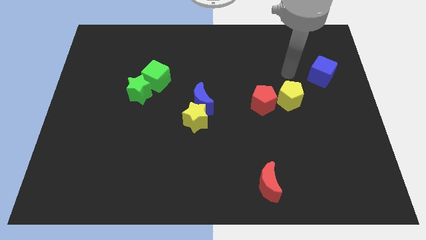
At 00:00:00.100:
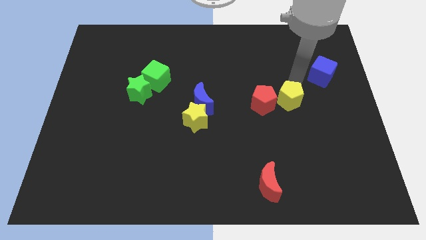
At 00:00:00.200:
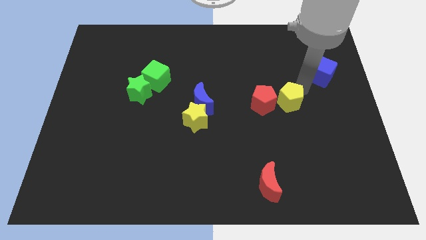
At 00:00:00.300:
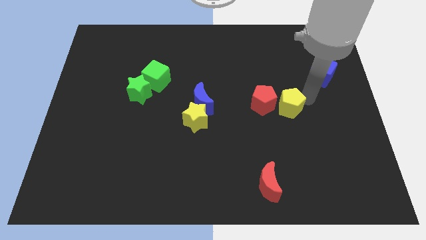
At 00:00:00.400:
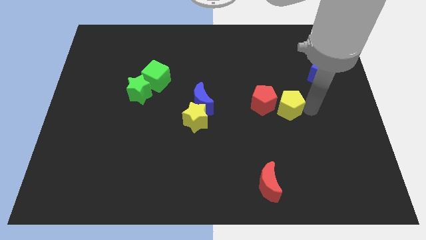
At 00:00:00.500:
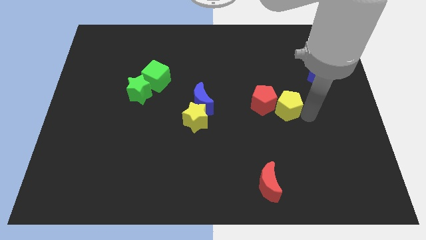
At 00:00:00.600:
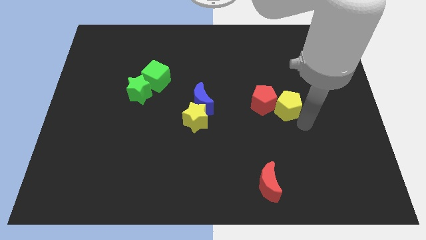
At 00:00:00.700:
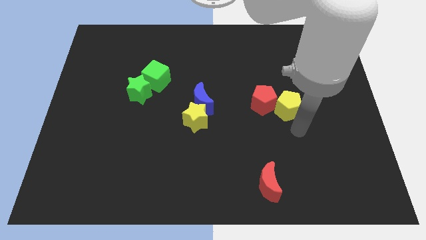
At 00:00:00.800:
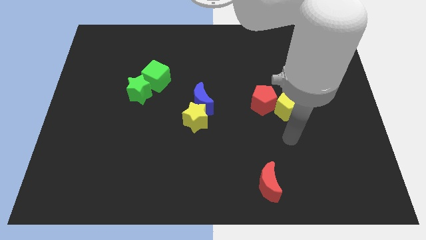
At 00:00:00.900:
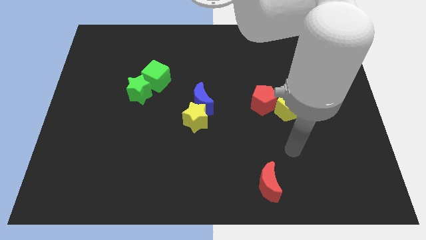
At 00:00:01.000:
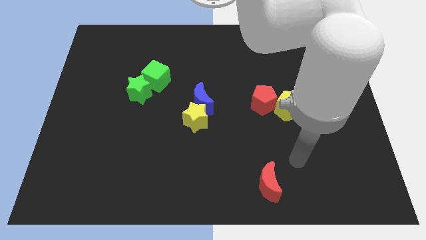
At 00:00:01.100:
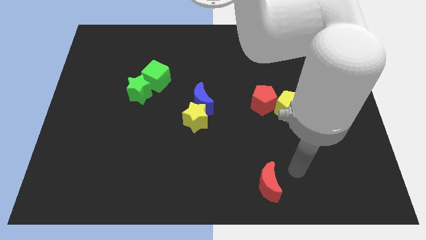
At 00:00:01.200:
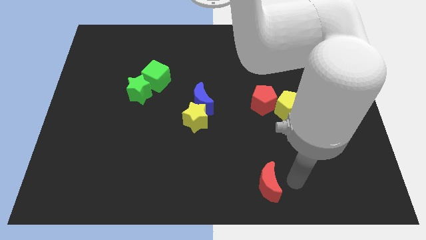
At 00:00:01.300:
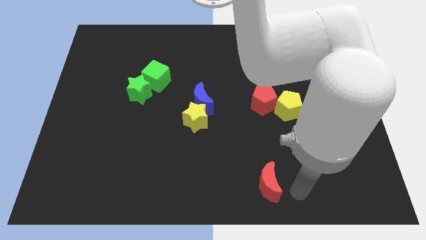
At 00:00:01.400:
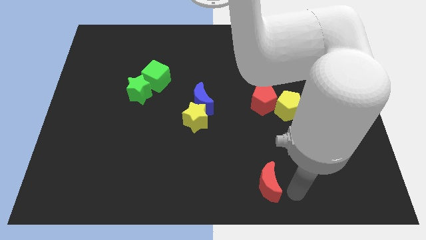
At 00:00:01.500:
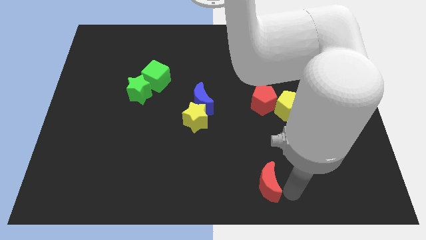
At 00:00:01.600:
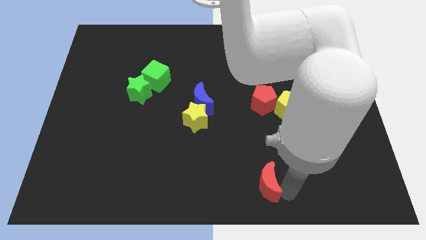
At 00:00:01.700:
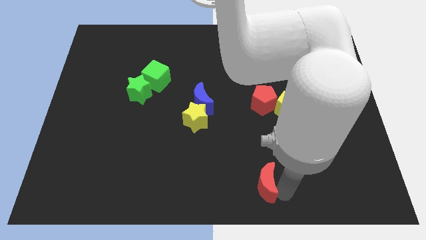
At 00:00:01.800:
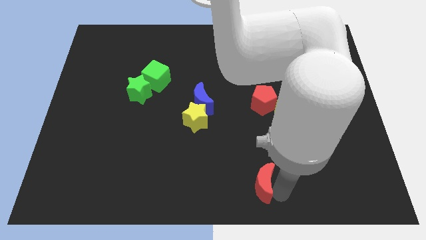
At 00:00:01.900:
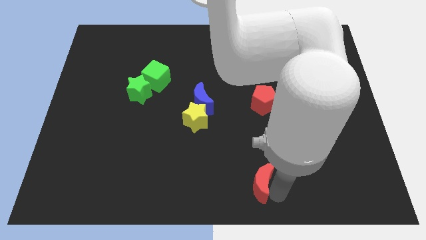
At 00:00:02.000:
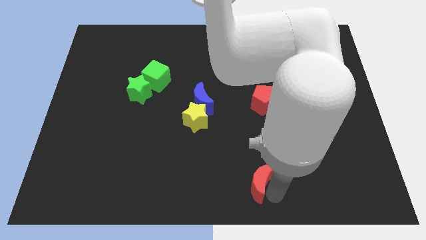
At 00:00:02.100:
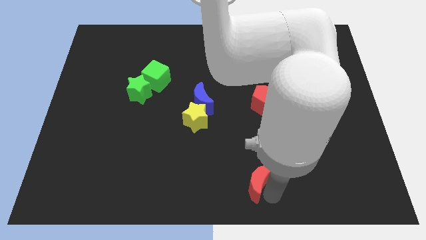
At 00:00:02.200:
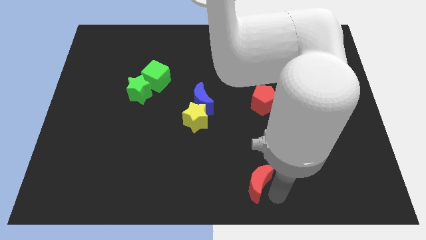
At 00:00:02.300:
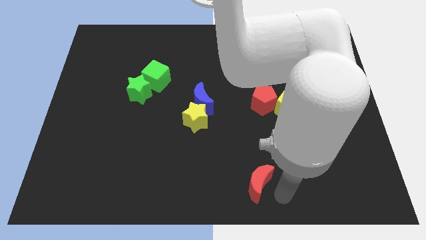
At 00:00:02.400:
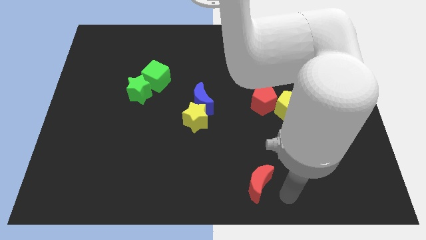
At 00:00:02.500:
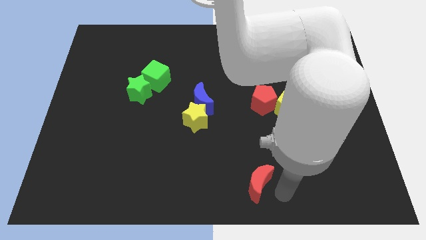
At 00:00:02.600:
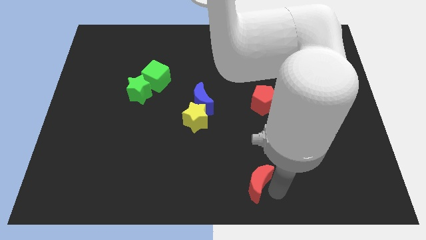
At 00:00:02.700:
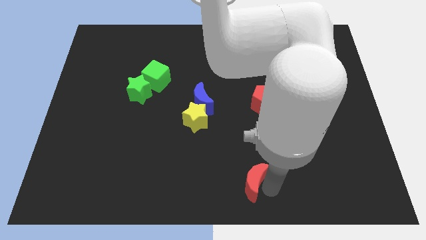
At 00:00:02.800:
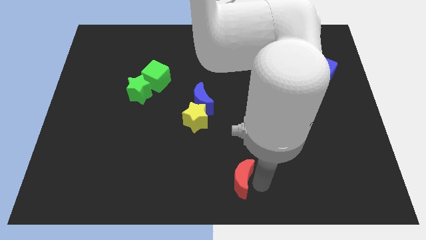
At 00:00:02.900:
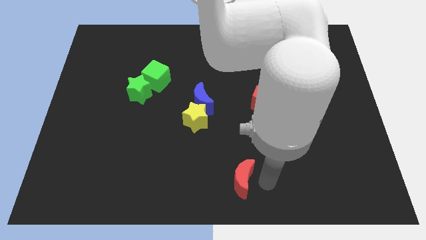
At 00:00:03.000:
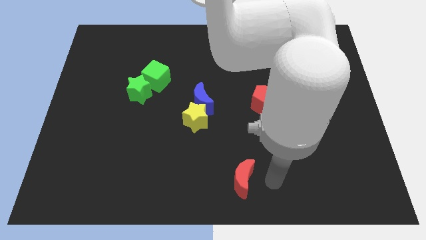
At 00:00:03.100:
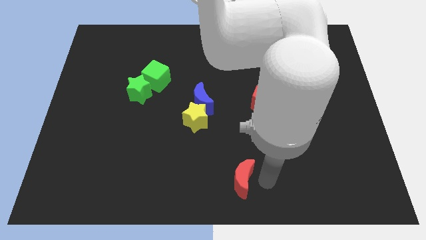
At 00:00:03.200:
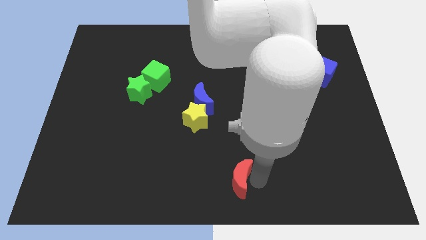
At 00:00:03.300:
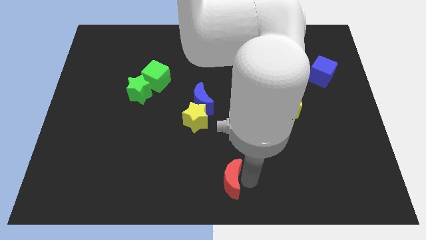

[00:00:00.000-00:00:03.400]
push the red moon a little bit to the left

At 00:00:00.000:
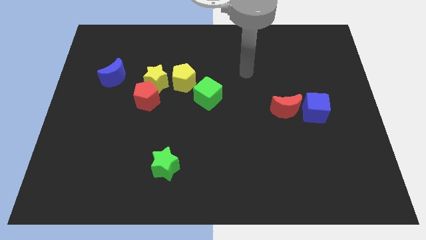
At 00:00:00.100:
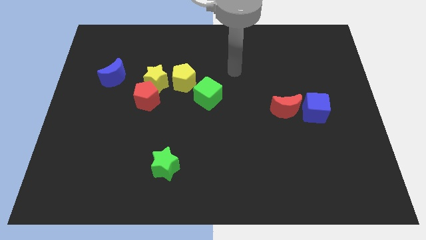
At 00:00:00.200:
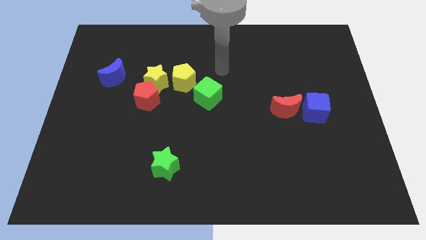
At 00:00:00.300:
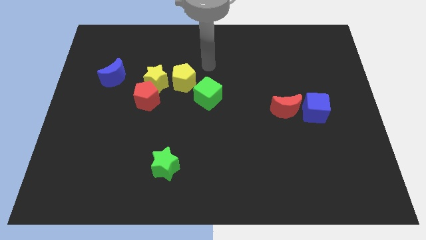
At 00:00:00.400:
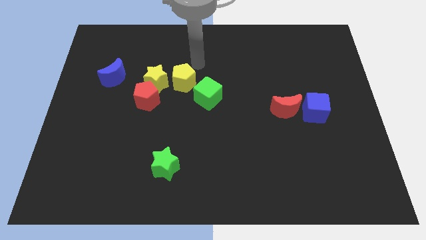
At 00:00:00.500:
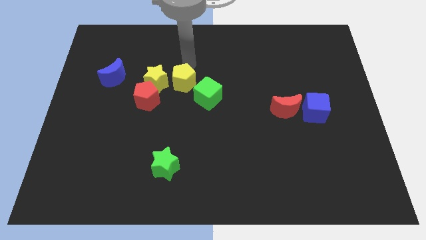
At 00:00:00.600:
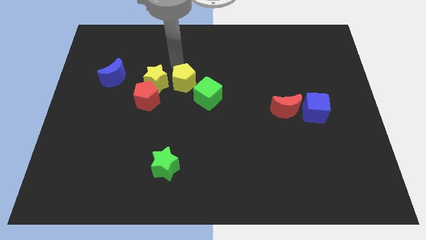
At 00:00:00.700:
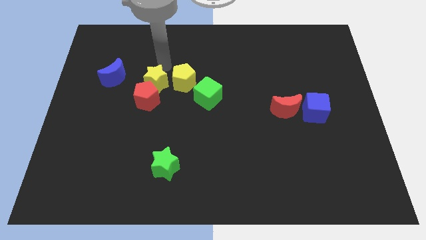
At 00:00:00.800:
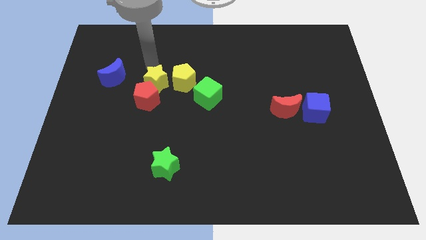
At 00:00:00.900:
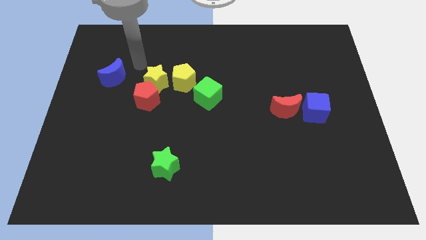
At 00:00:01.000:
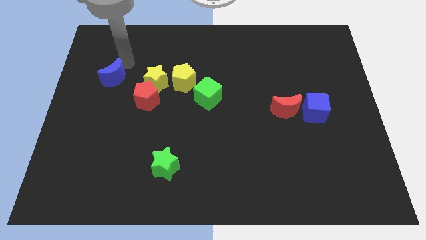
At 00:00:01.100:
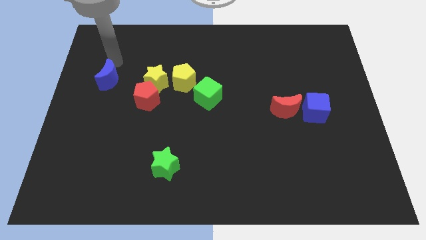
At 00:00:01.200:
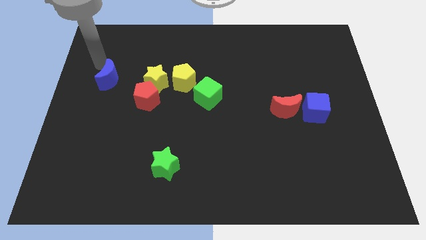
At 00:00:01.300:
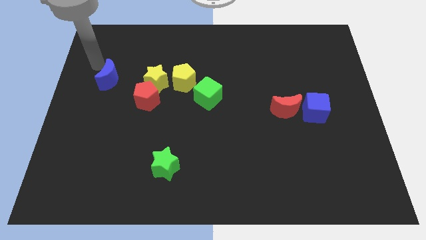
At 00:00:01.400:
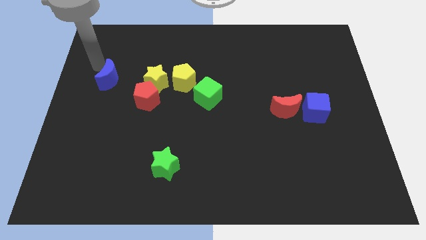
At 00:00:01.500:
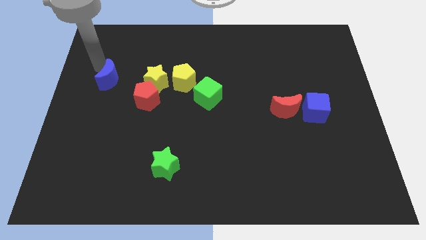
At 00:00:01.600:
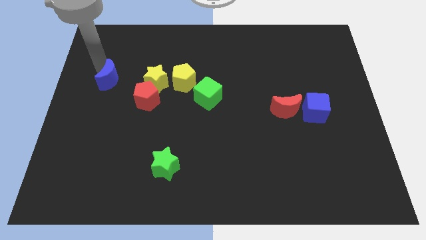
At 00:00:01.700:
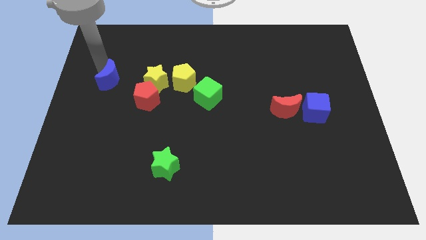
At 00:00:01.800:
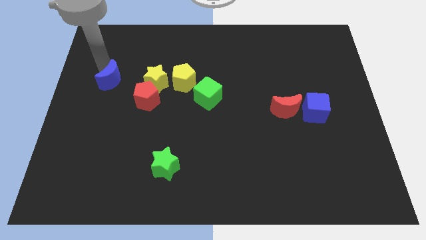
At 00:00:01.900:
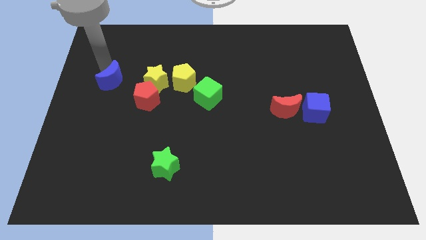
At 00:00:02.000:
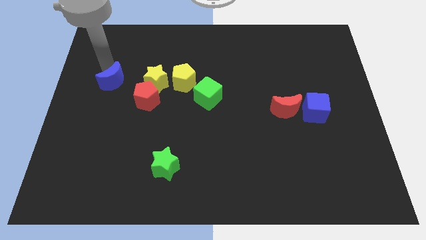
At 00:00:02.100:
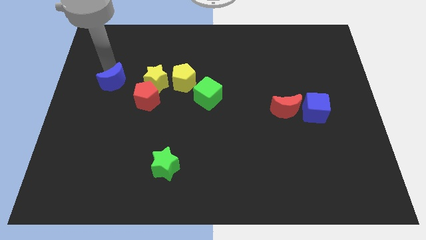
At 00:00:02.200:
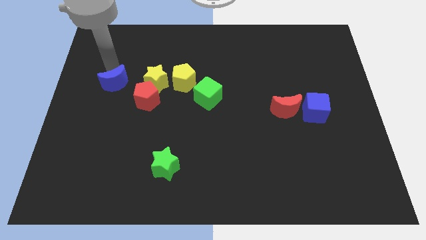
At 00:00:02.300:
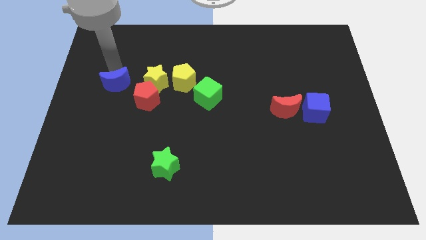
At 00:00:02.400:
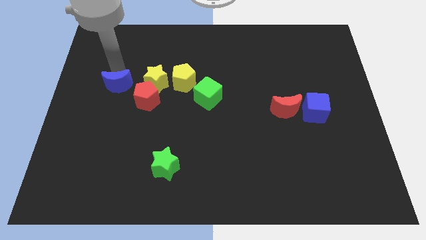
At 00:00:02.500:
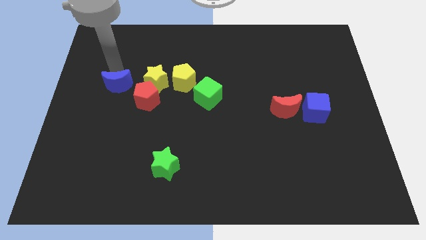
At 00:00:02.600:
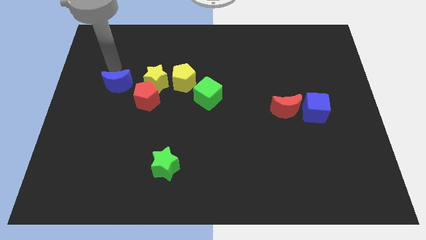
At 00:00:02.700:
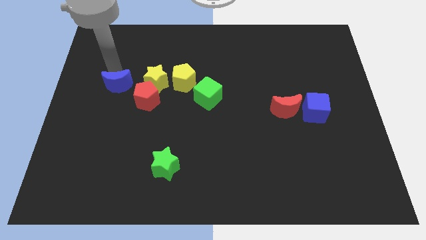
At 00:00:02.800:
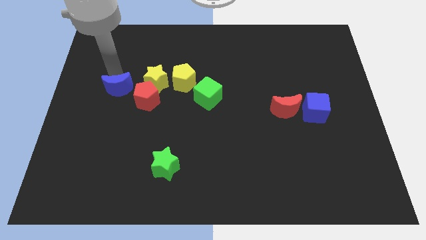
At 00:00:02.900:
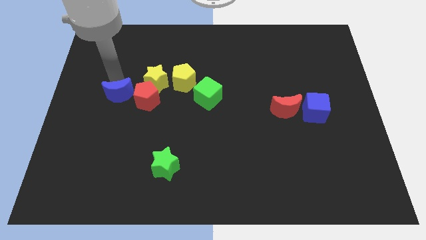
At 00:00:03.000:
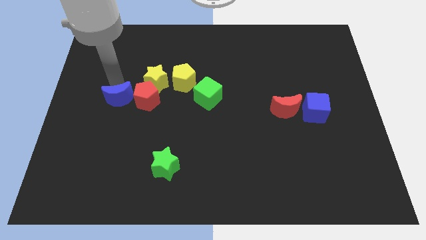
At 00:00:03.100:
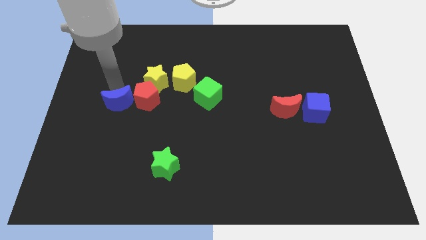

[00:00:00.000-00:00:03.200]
move the blue moon a little bit downwards and to the right

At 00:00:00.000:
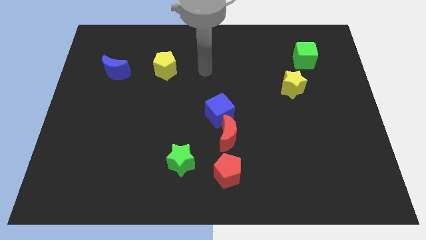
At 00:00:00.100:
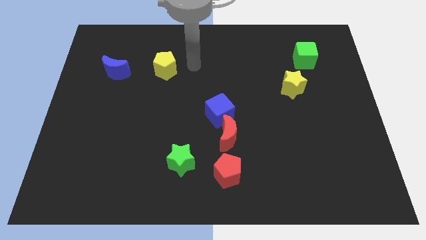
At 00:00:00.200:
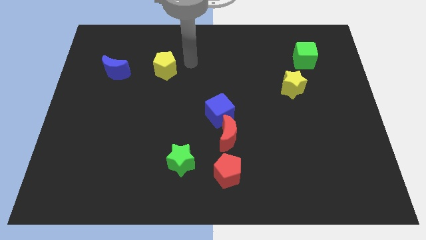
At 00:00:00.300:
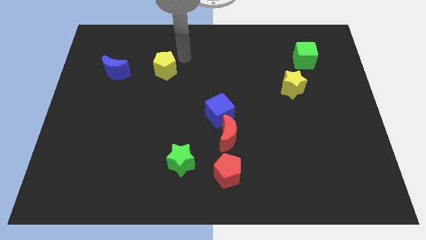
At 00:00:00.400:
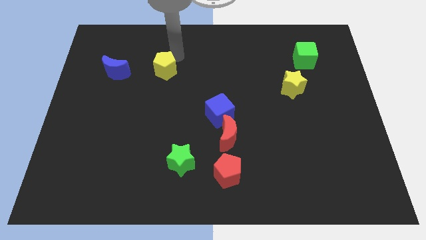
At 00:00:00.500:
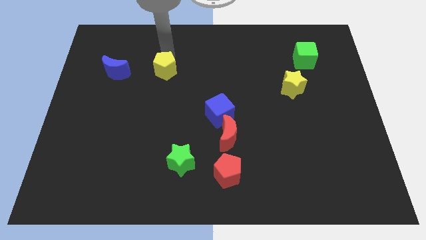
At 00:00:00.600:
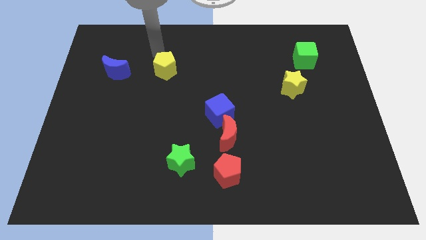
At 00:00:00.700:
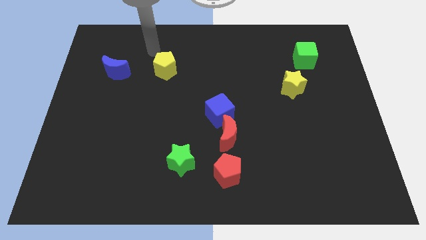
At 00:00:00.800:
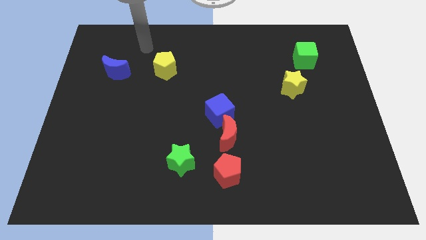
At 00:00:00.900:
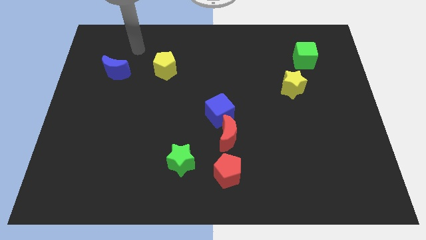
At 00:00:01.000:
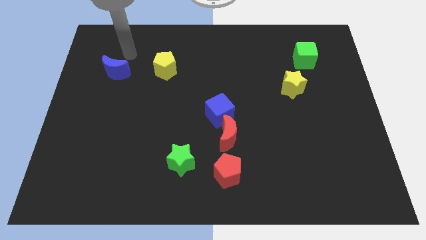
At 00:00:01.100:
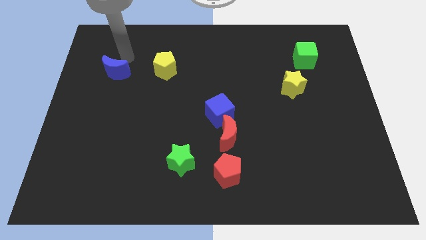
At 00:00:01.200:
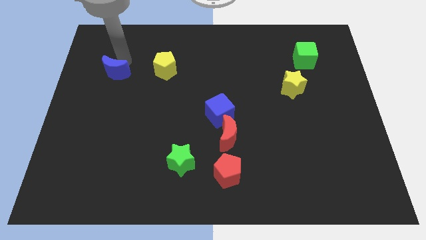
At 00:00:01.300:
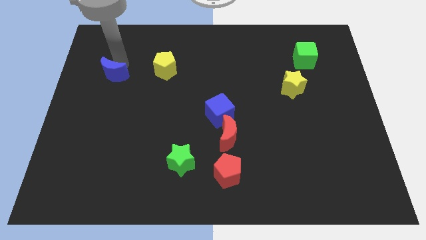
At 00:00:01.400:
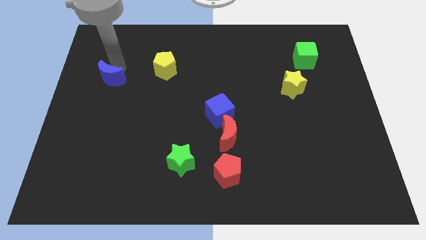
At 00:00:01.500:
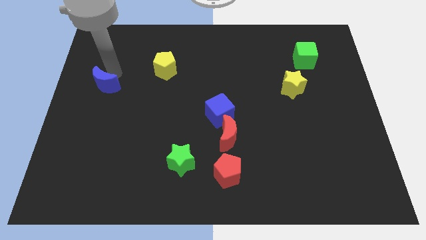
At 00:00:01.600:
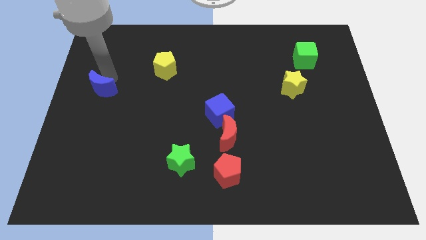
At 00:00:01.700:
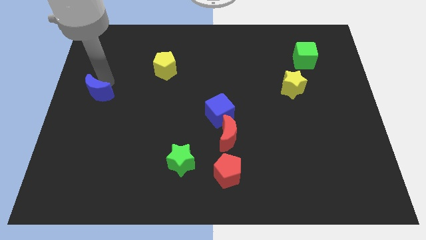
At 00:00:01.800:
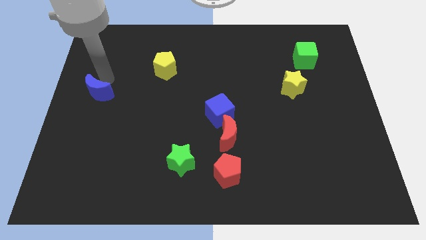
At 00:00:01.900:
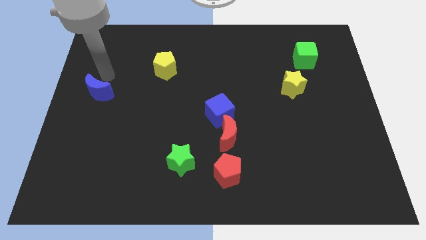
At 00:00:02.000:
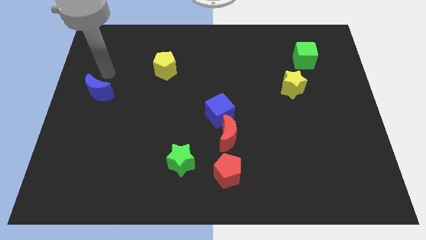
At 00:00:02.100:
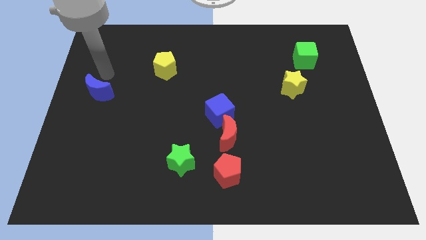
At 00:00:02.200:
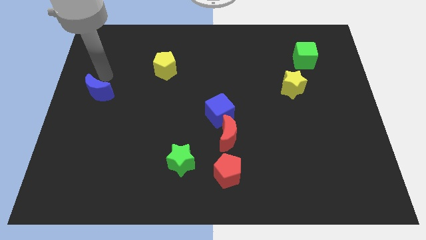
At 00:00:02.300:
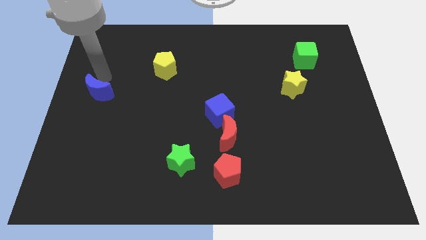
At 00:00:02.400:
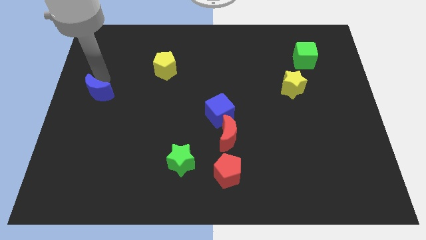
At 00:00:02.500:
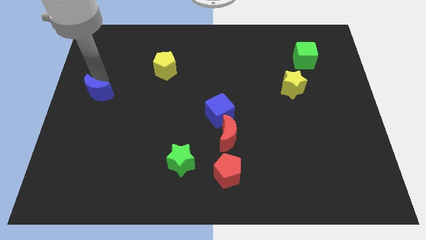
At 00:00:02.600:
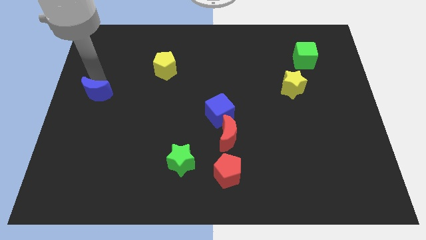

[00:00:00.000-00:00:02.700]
move the blue moon down a bit
